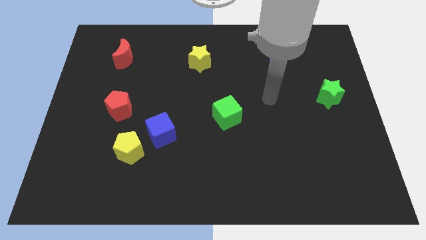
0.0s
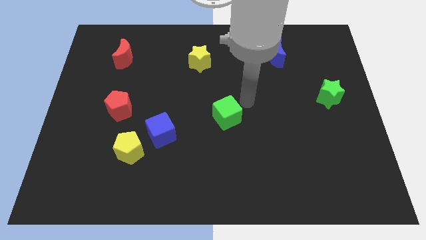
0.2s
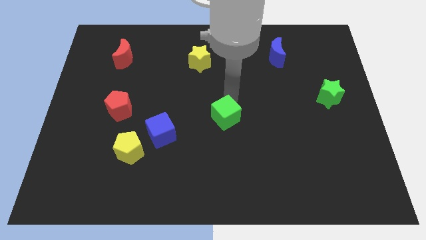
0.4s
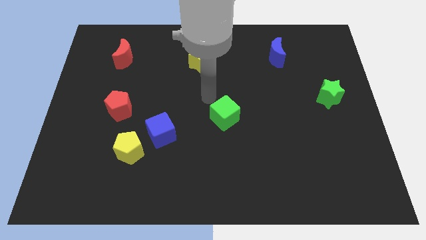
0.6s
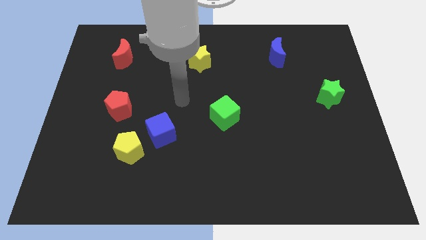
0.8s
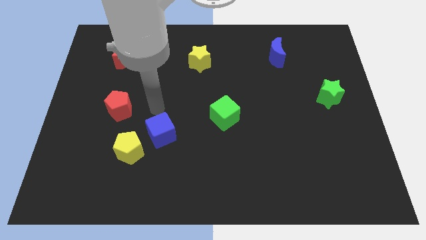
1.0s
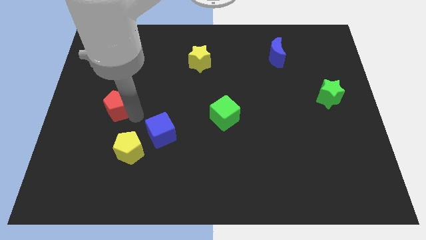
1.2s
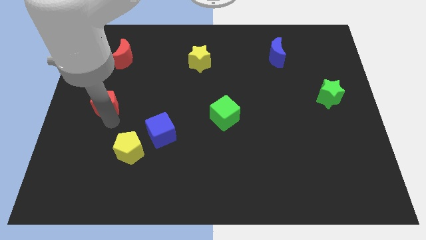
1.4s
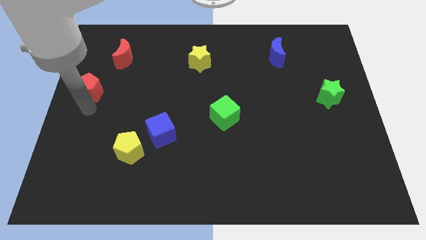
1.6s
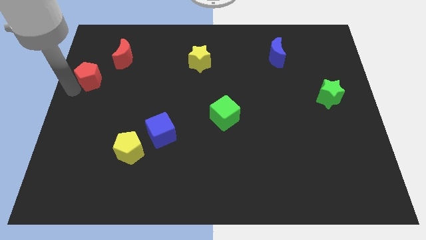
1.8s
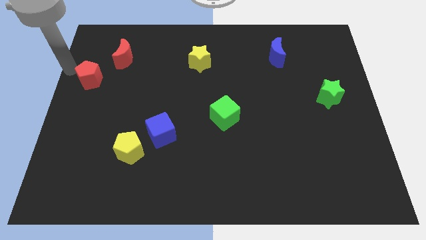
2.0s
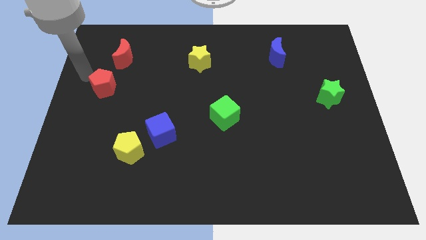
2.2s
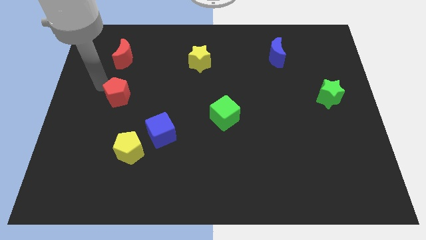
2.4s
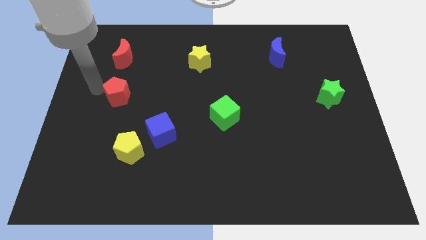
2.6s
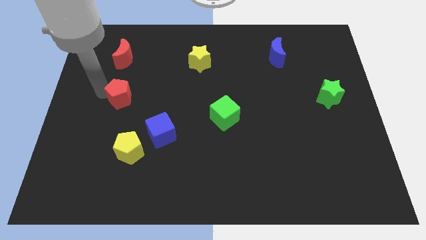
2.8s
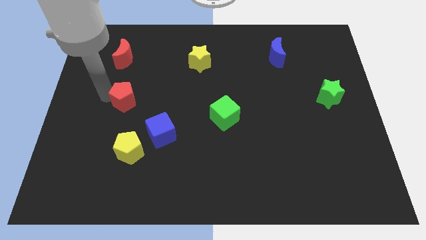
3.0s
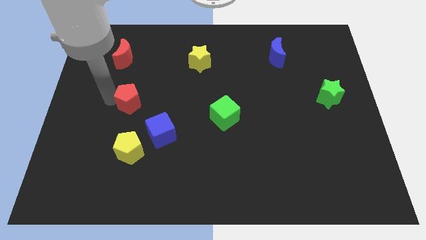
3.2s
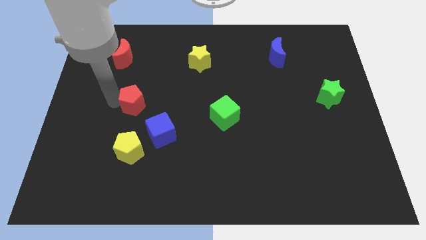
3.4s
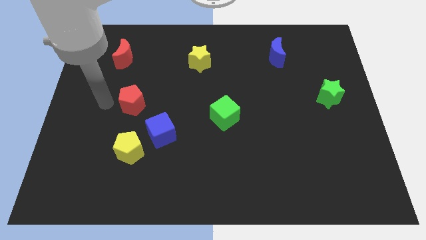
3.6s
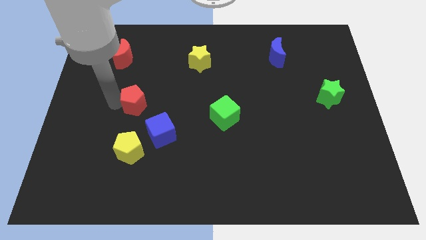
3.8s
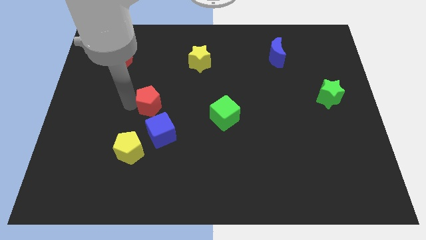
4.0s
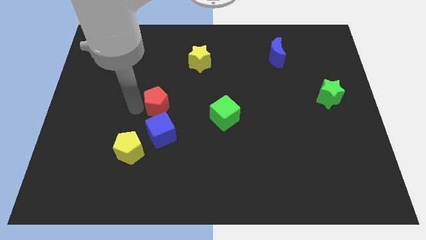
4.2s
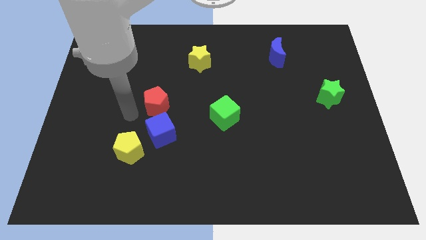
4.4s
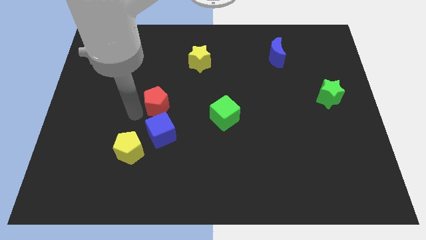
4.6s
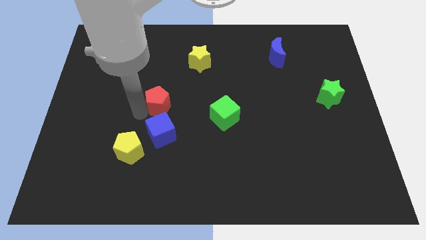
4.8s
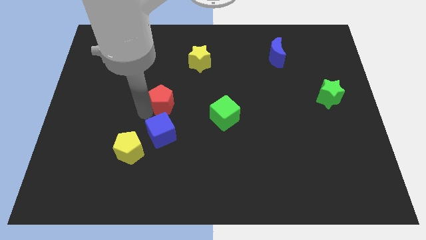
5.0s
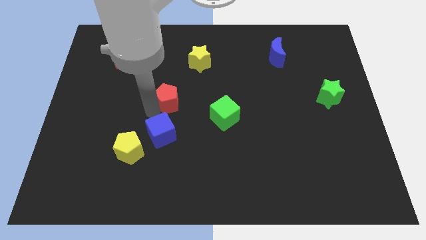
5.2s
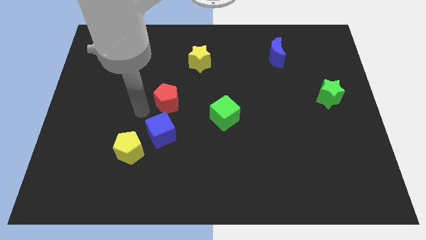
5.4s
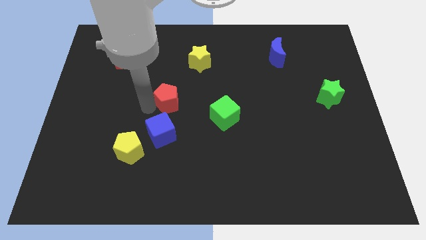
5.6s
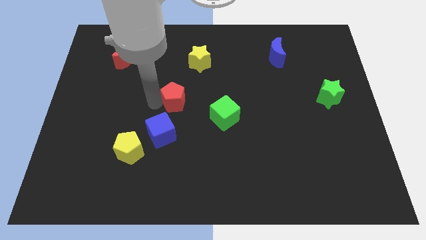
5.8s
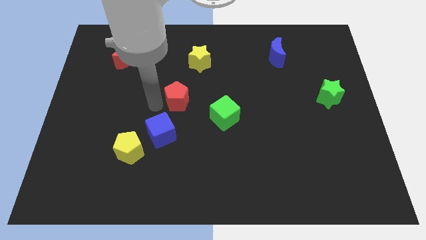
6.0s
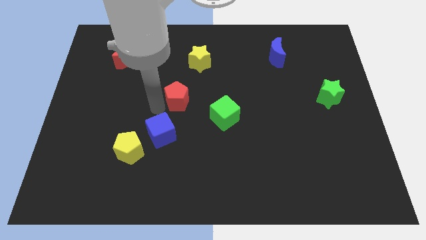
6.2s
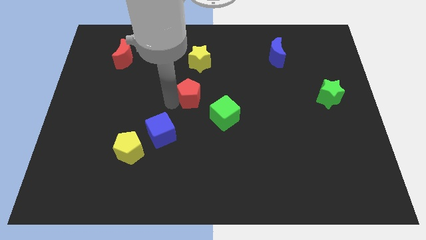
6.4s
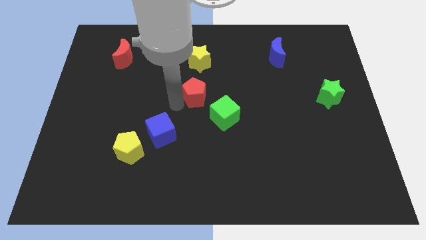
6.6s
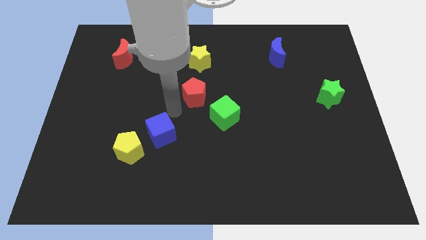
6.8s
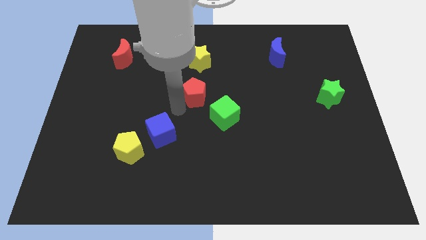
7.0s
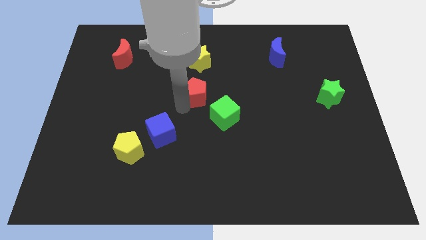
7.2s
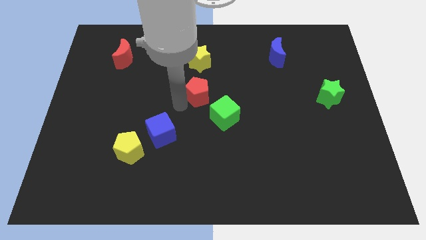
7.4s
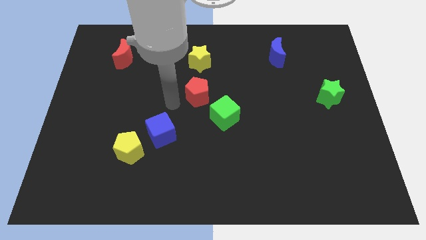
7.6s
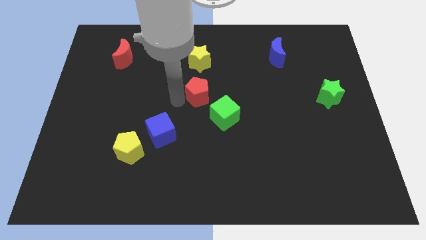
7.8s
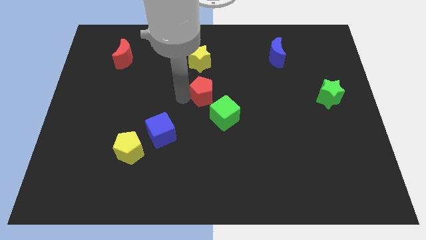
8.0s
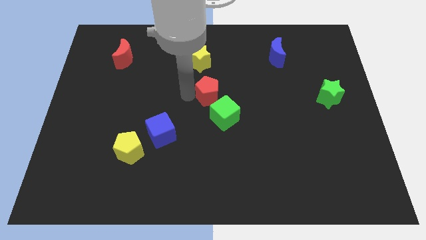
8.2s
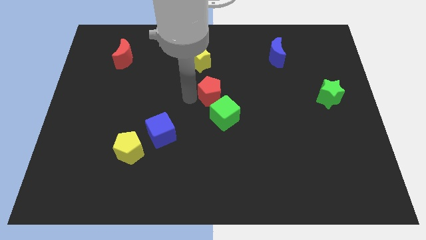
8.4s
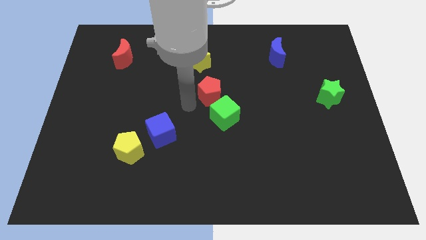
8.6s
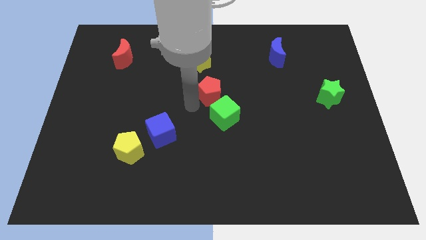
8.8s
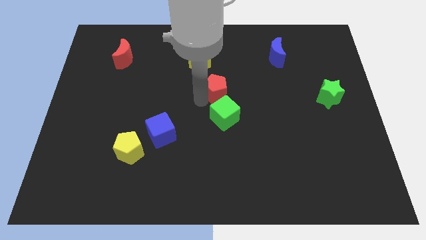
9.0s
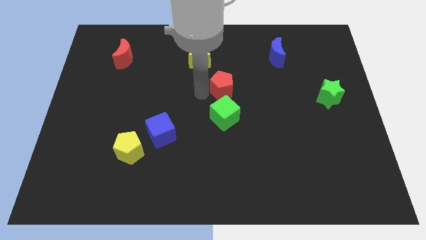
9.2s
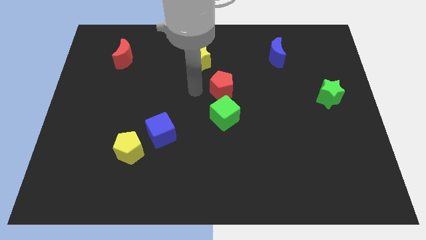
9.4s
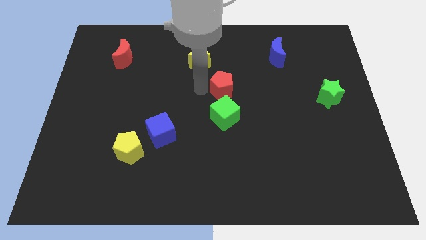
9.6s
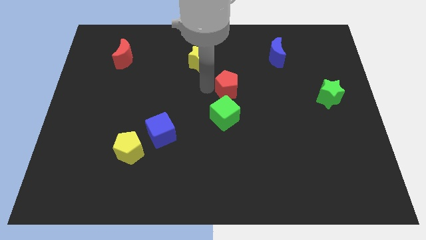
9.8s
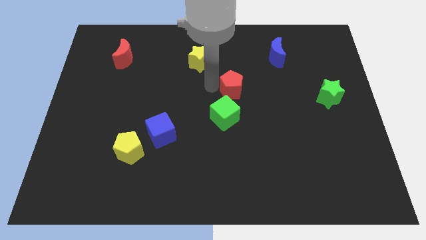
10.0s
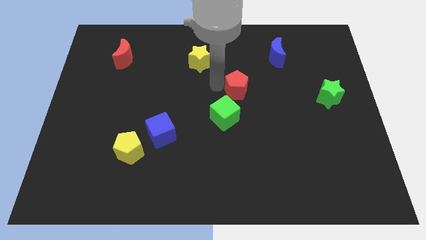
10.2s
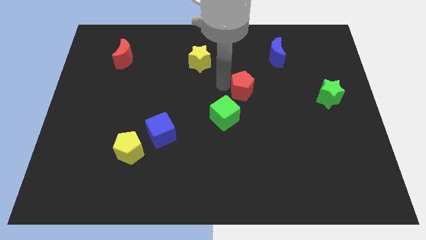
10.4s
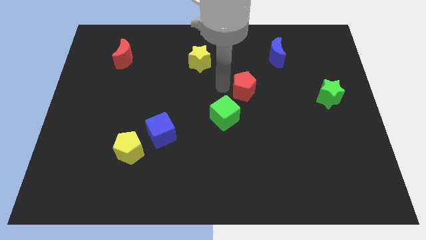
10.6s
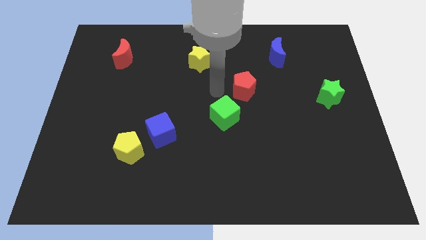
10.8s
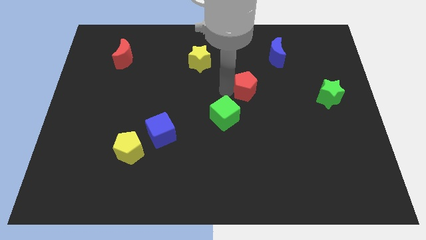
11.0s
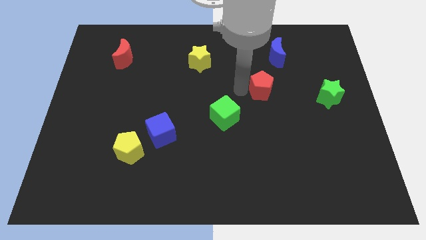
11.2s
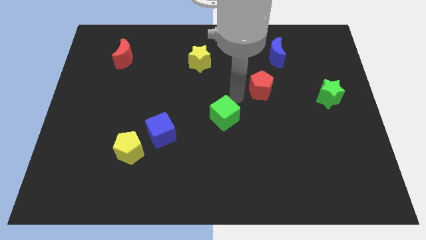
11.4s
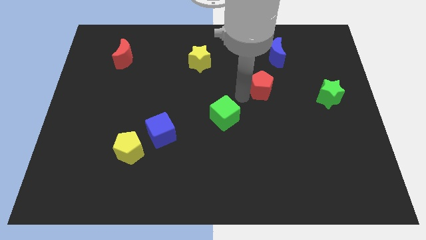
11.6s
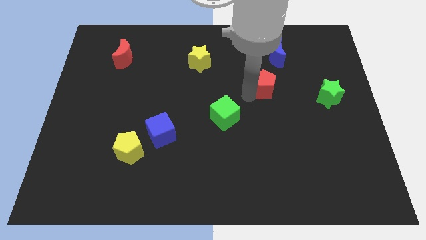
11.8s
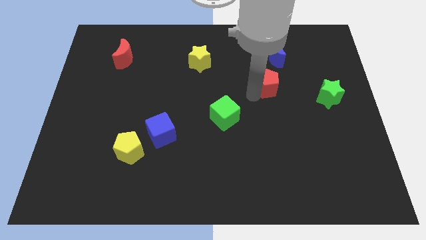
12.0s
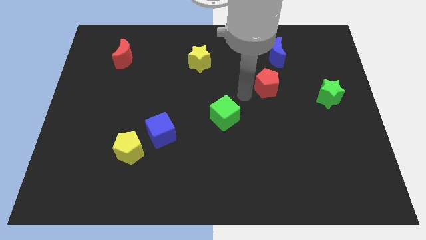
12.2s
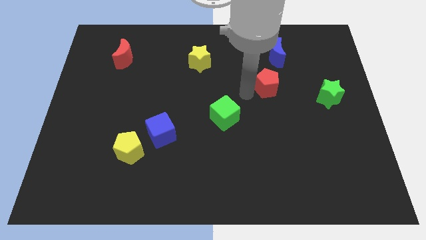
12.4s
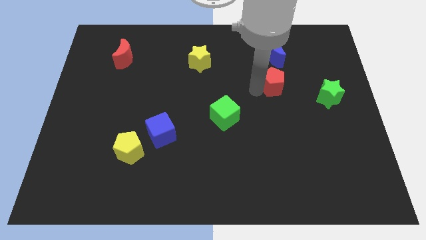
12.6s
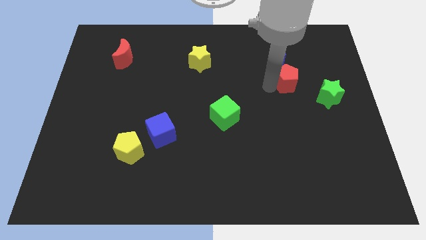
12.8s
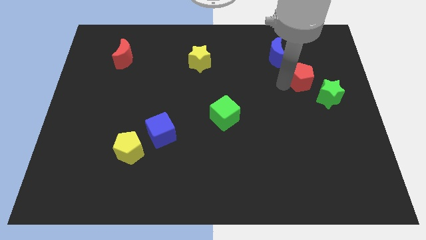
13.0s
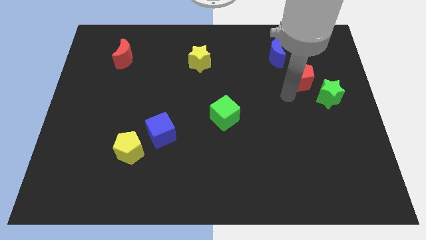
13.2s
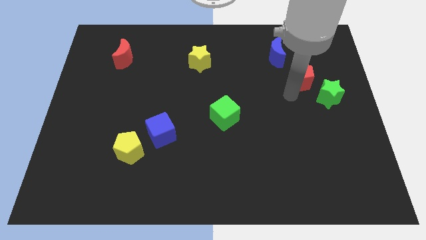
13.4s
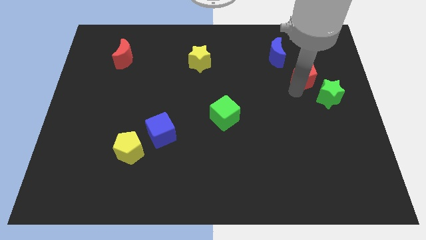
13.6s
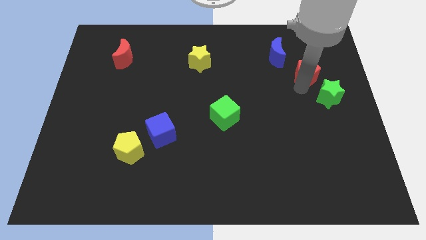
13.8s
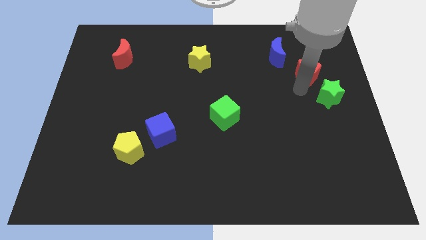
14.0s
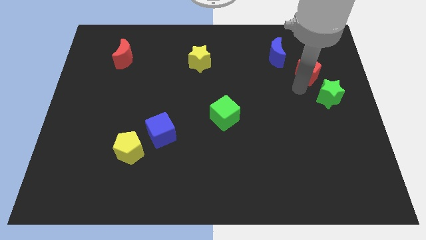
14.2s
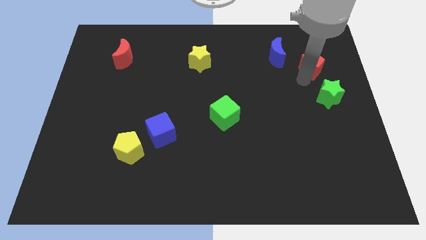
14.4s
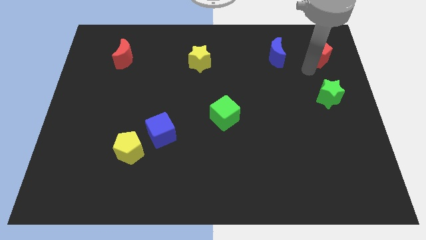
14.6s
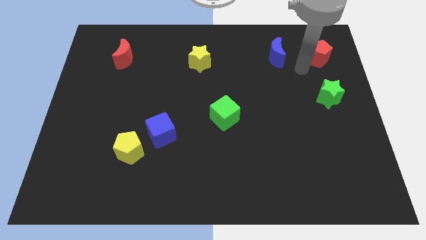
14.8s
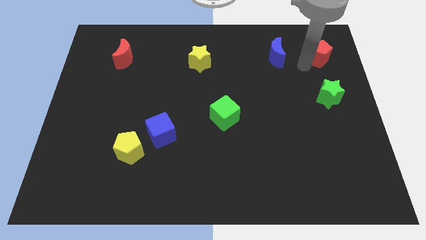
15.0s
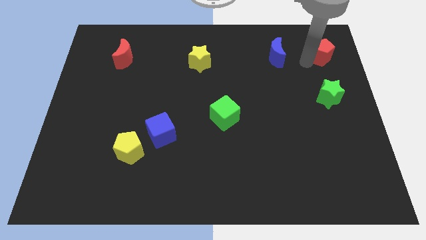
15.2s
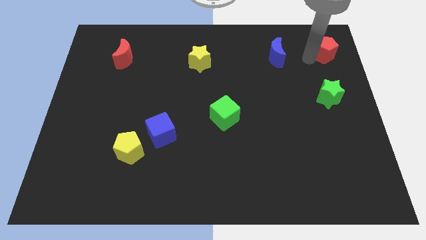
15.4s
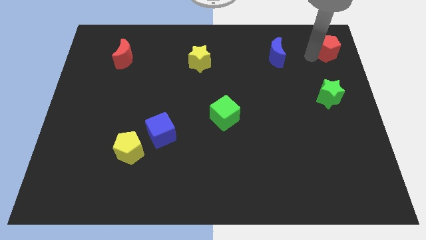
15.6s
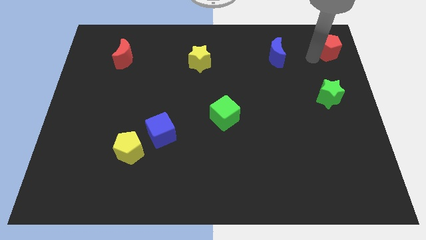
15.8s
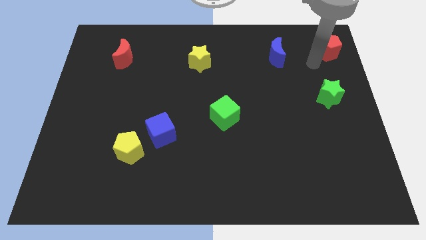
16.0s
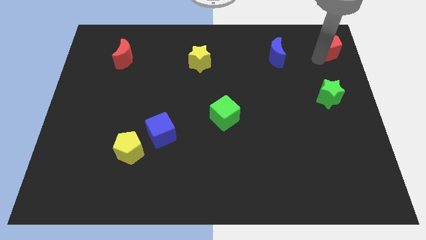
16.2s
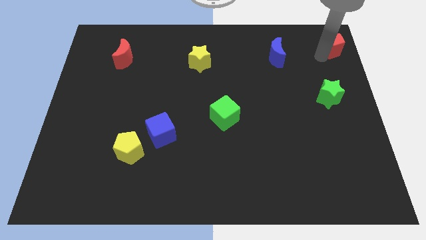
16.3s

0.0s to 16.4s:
push the red pentagon to the top right corner
